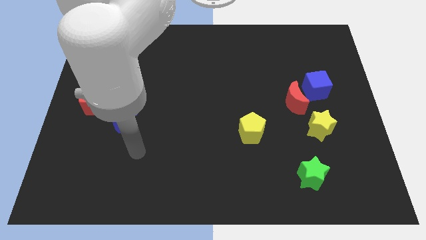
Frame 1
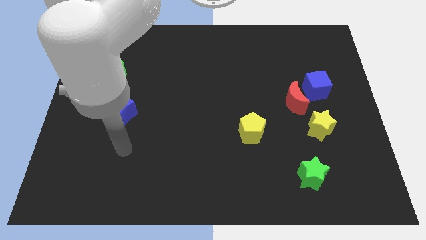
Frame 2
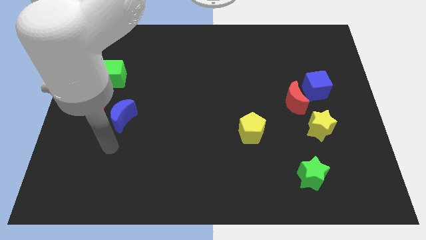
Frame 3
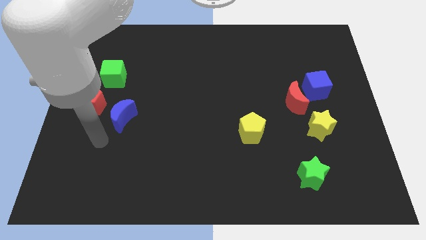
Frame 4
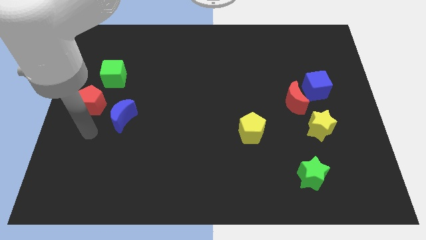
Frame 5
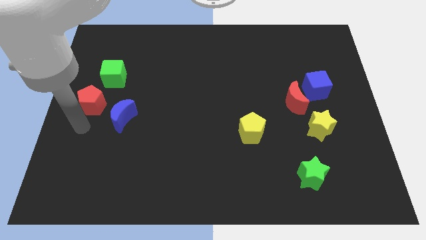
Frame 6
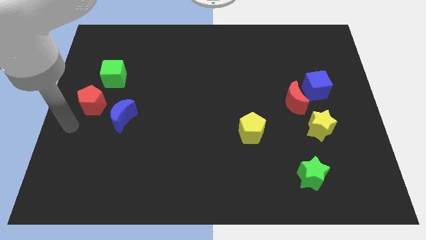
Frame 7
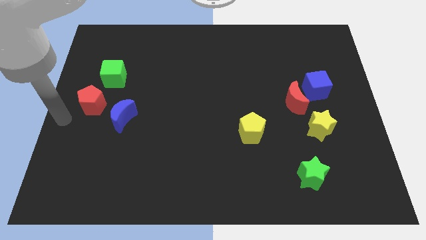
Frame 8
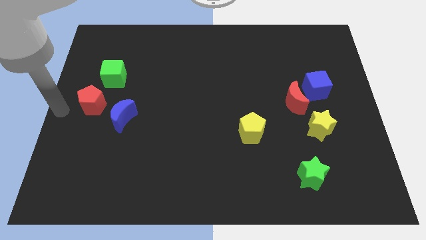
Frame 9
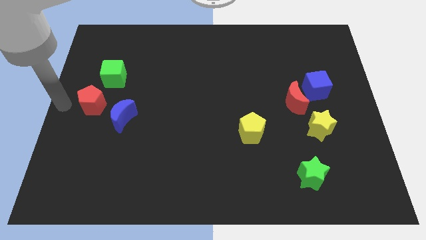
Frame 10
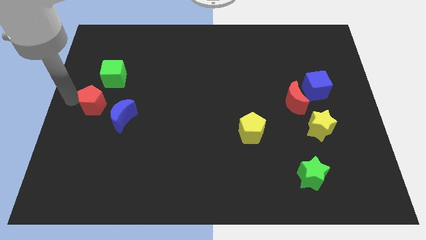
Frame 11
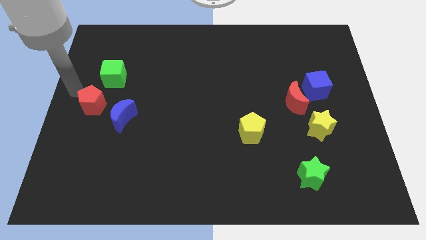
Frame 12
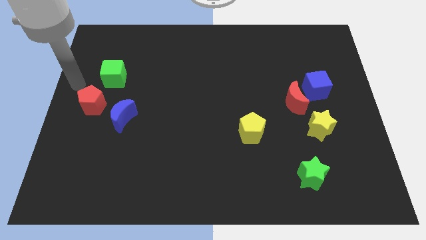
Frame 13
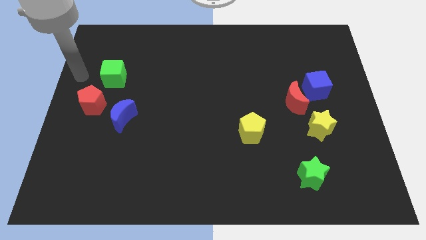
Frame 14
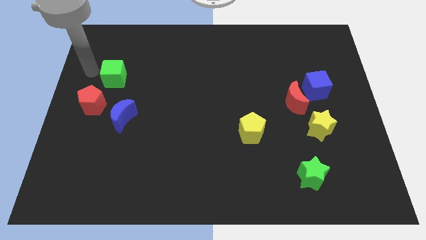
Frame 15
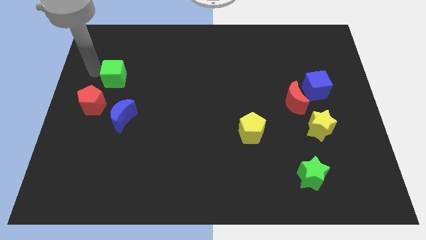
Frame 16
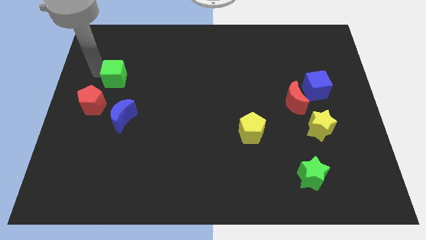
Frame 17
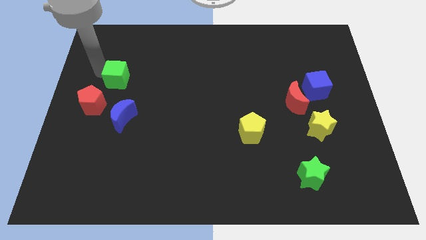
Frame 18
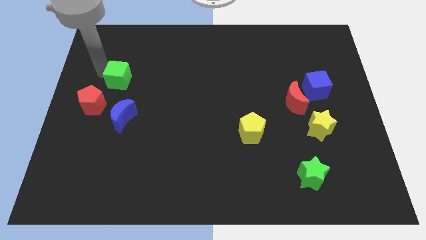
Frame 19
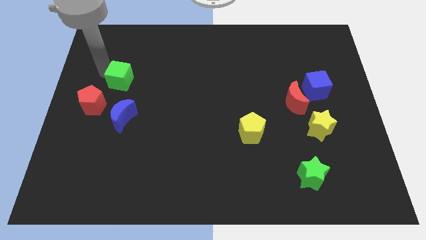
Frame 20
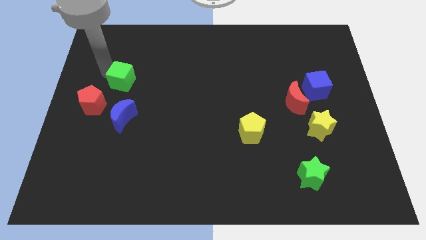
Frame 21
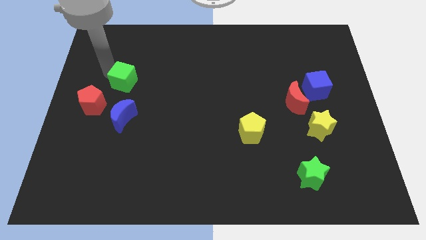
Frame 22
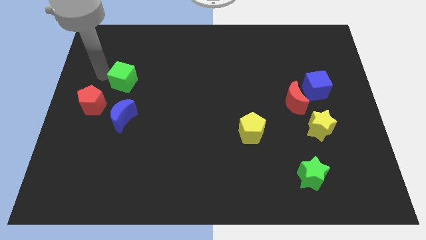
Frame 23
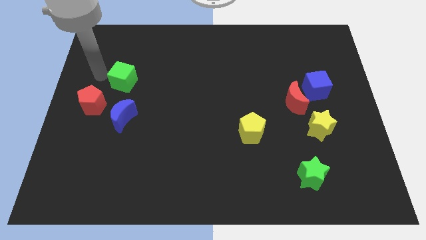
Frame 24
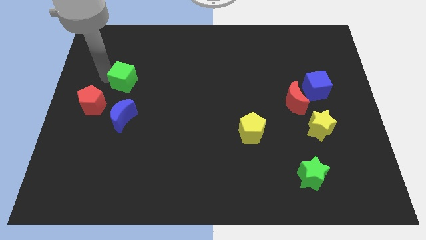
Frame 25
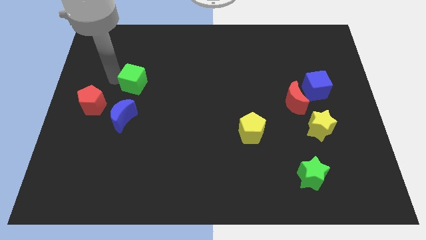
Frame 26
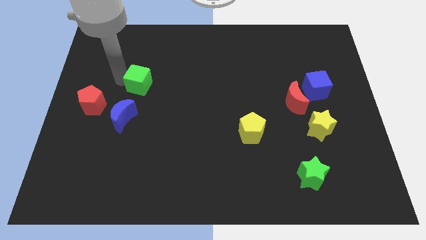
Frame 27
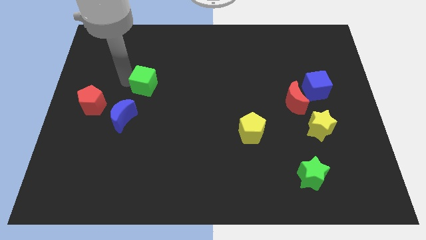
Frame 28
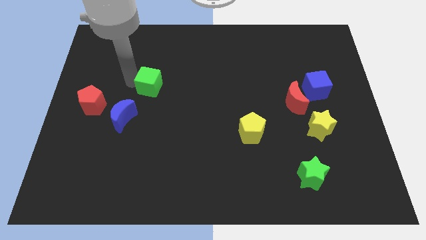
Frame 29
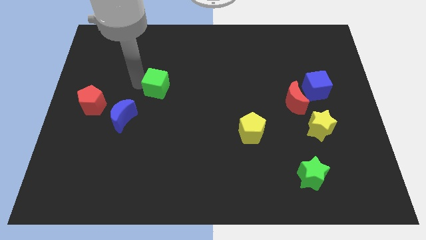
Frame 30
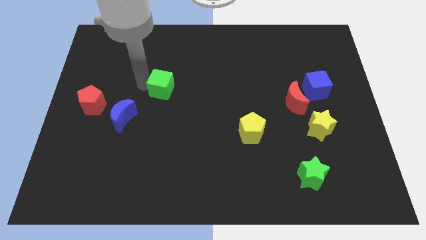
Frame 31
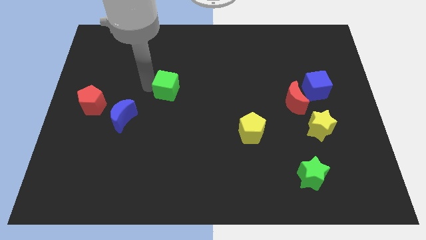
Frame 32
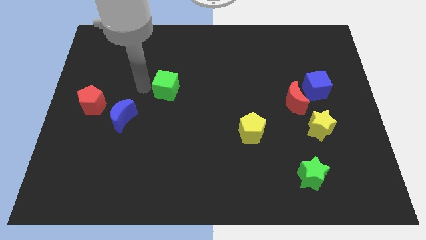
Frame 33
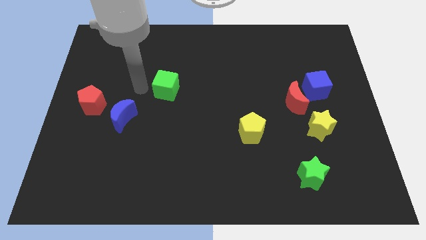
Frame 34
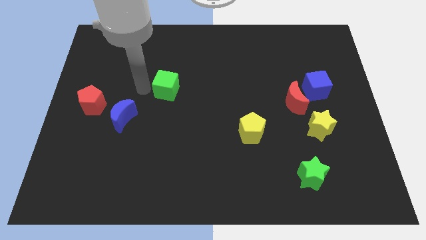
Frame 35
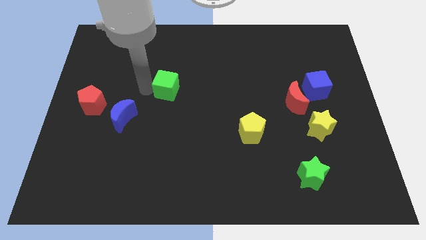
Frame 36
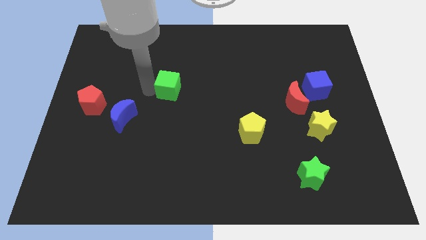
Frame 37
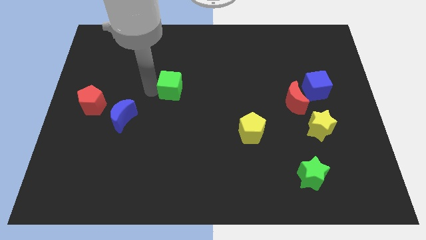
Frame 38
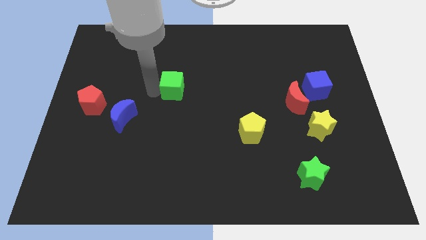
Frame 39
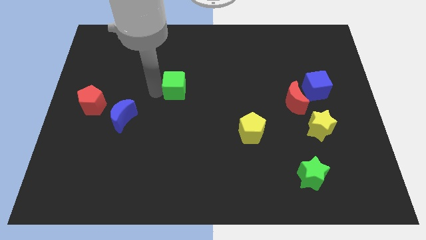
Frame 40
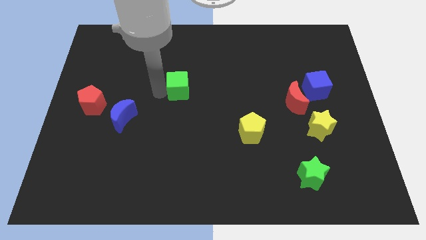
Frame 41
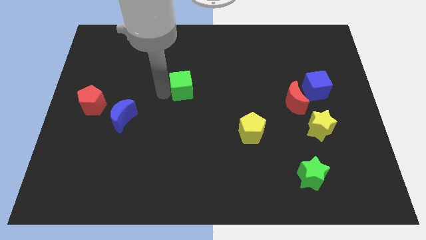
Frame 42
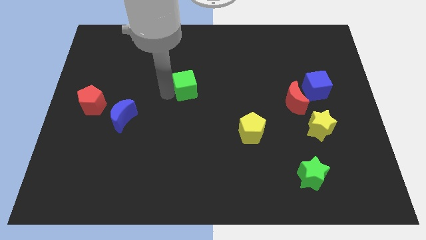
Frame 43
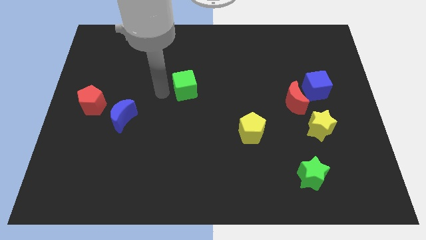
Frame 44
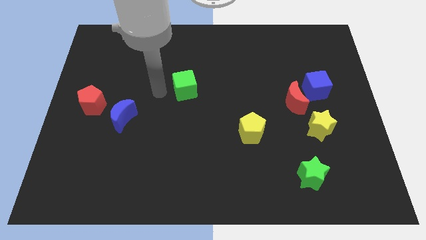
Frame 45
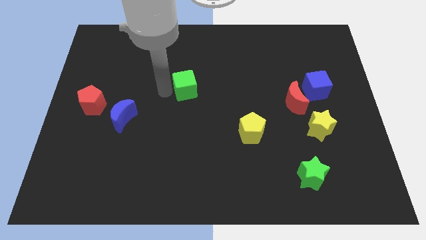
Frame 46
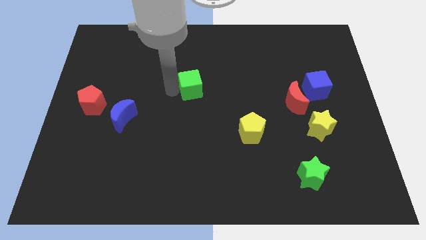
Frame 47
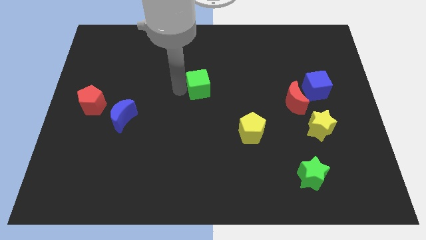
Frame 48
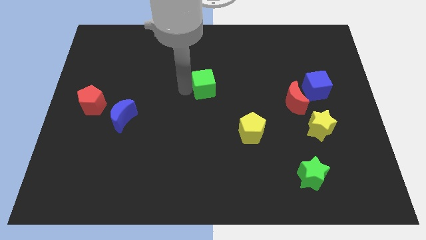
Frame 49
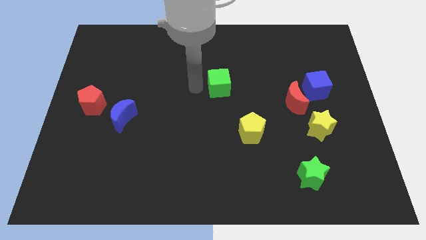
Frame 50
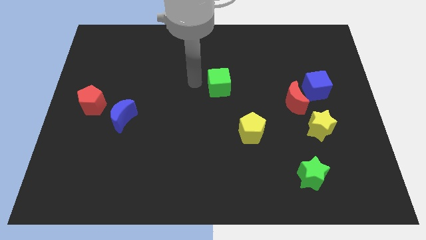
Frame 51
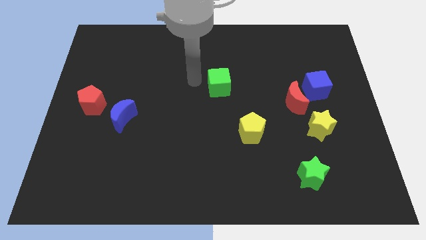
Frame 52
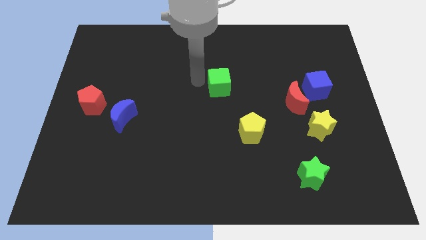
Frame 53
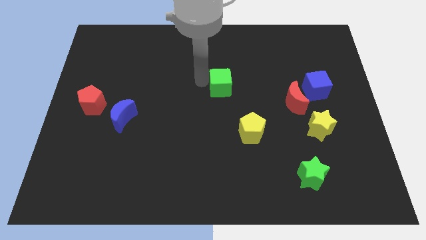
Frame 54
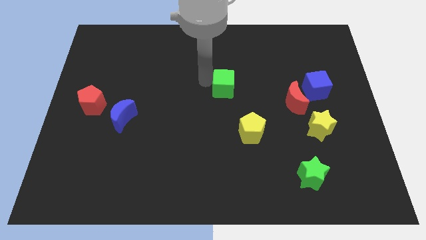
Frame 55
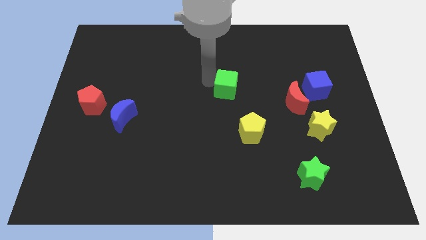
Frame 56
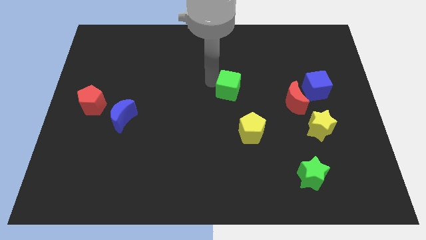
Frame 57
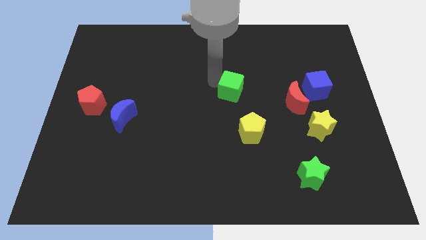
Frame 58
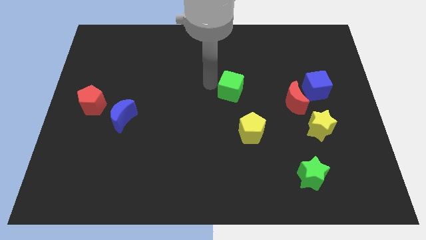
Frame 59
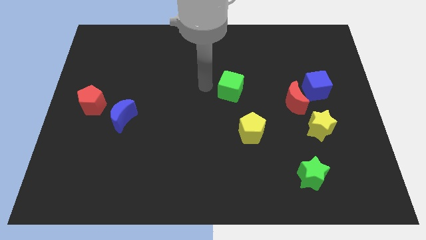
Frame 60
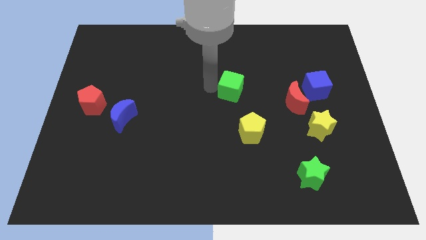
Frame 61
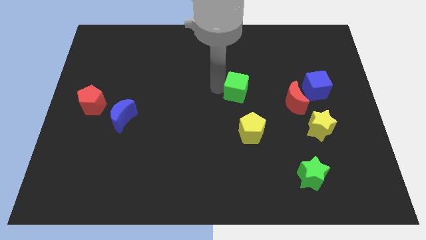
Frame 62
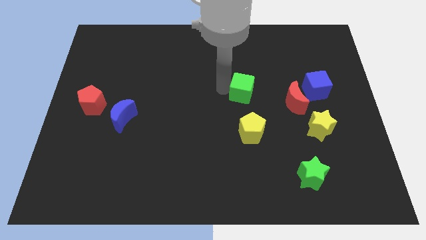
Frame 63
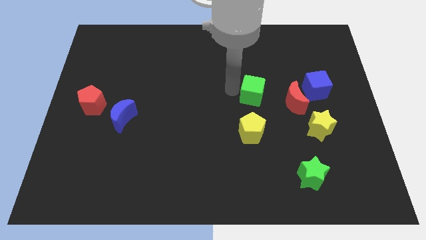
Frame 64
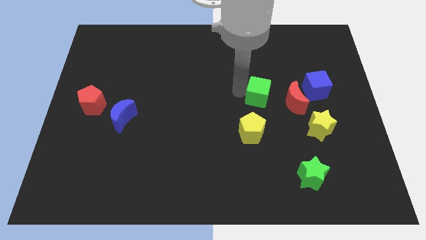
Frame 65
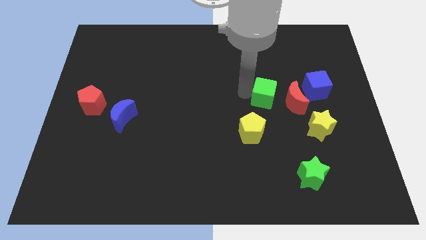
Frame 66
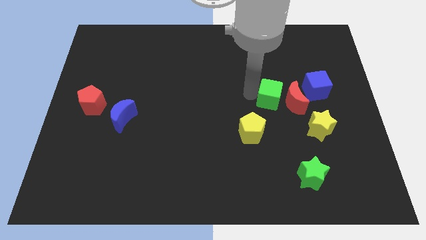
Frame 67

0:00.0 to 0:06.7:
slide the green cube close to the red moon

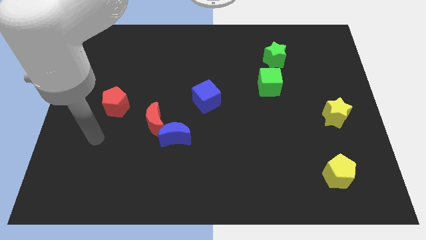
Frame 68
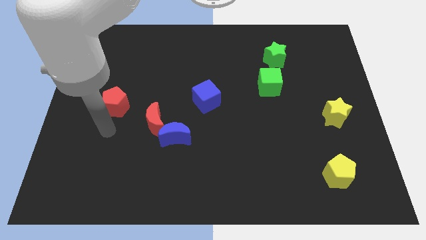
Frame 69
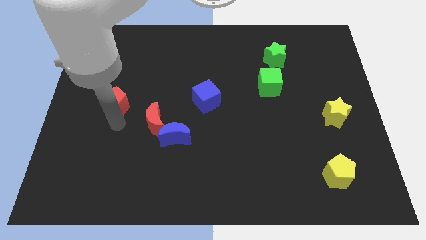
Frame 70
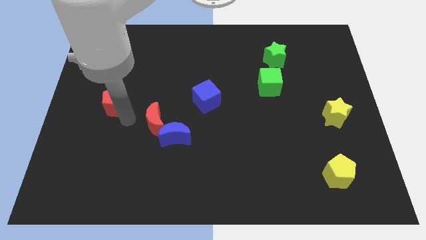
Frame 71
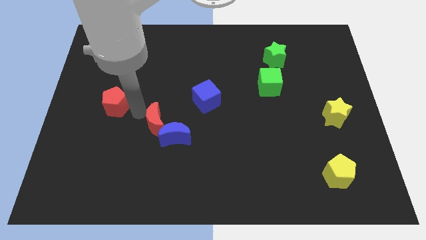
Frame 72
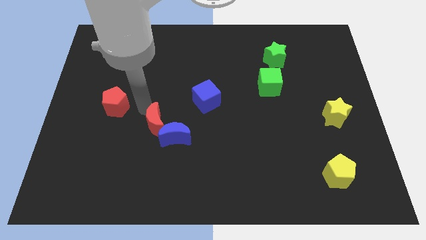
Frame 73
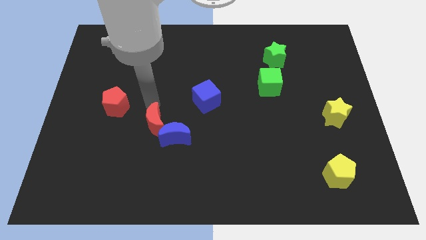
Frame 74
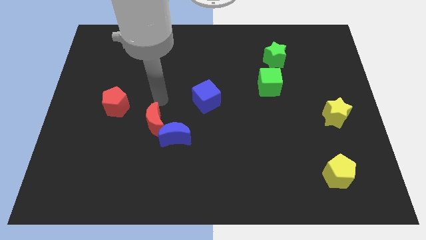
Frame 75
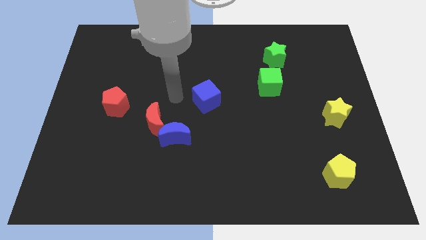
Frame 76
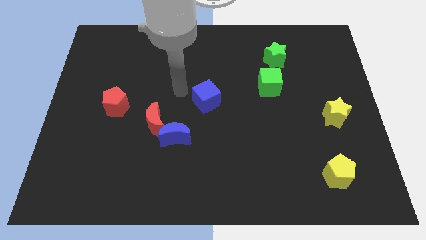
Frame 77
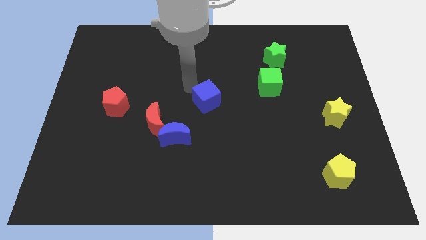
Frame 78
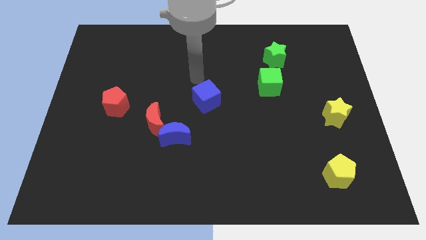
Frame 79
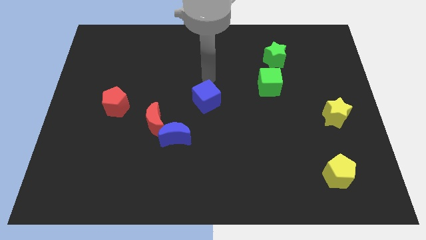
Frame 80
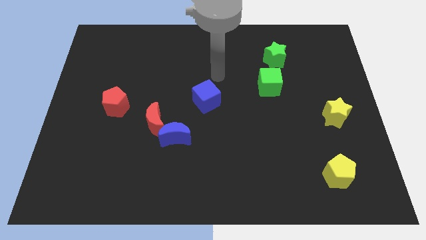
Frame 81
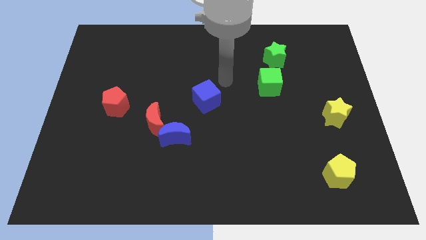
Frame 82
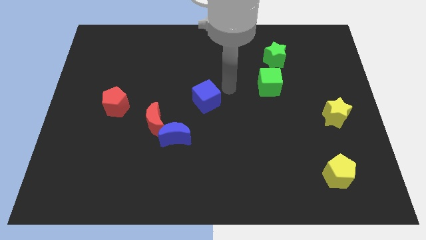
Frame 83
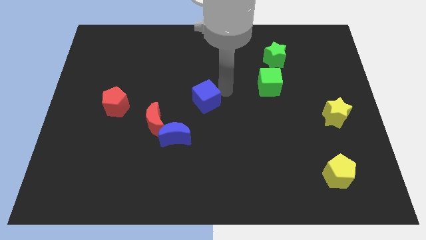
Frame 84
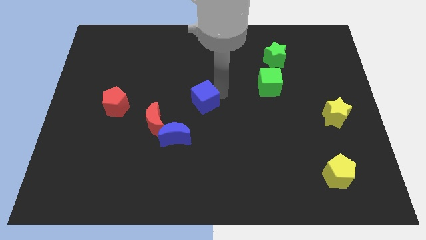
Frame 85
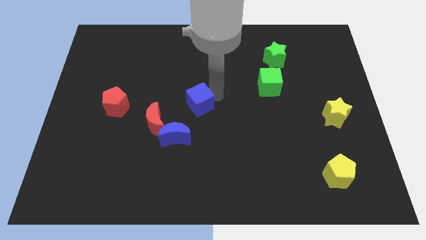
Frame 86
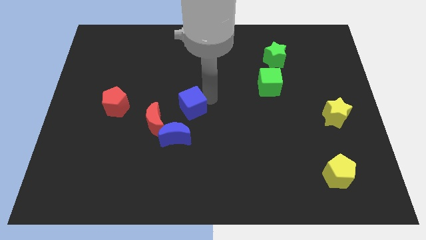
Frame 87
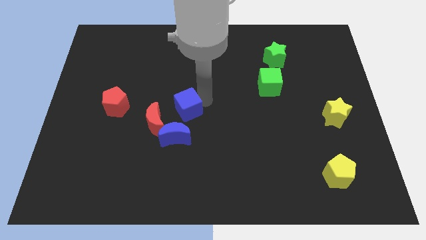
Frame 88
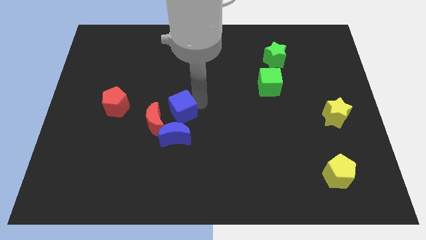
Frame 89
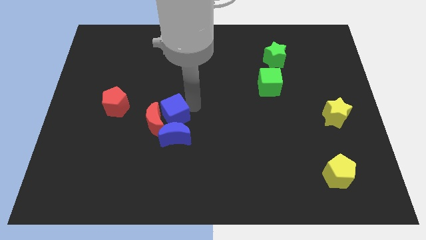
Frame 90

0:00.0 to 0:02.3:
put the blue cube towards the red moon
